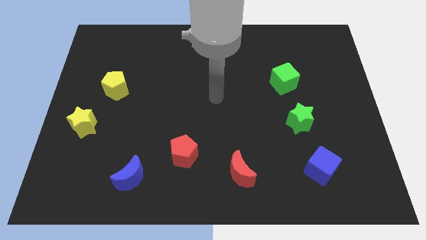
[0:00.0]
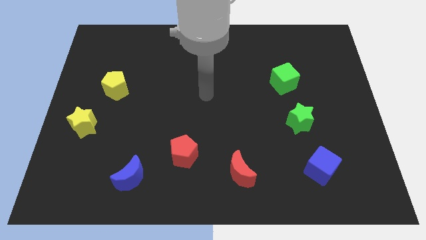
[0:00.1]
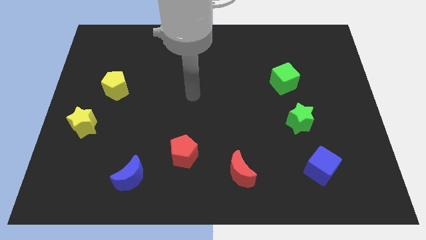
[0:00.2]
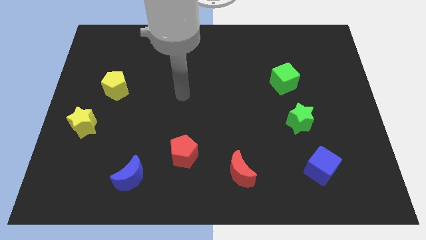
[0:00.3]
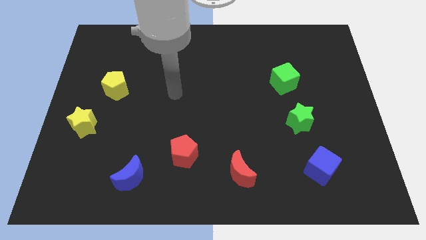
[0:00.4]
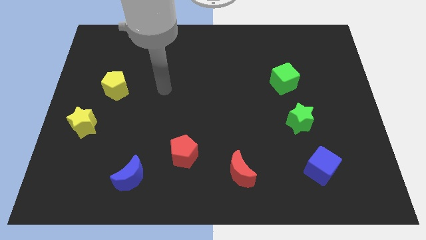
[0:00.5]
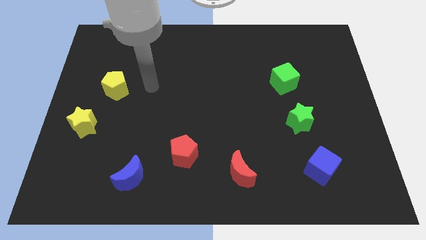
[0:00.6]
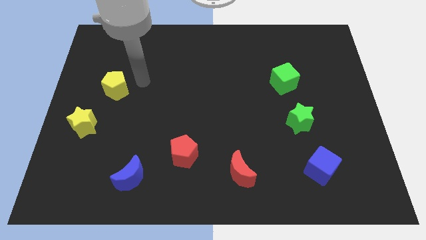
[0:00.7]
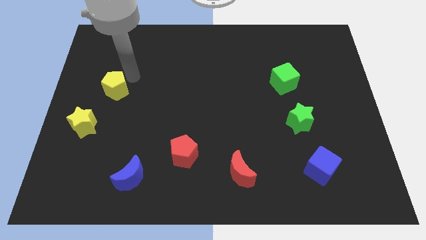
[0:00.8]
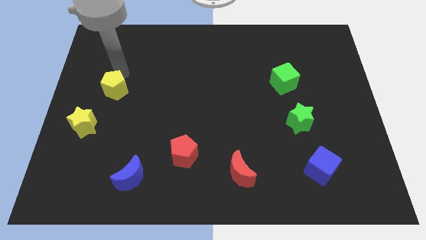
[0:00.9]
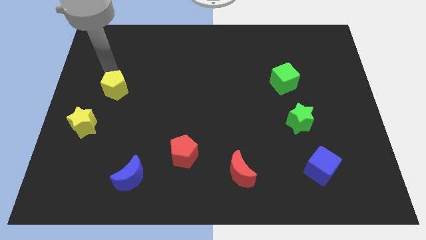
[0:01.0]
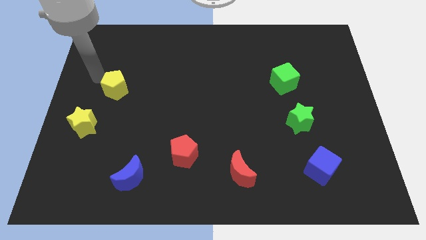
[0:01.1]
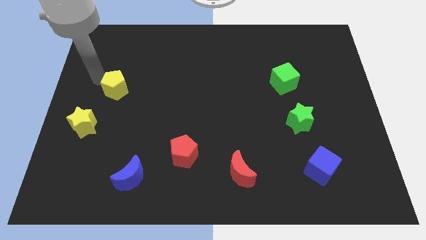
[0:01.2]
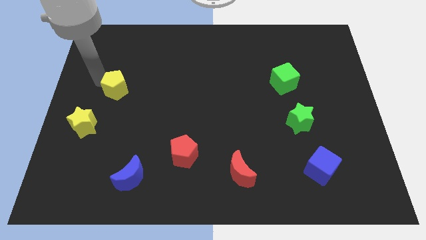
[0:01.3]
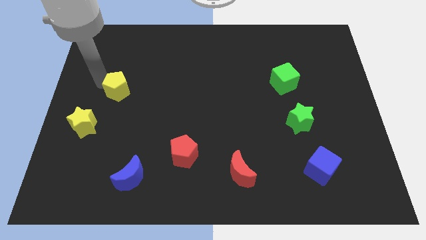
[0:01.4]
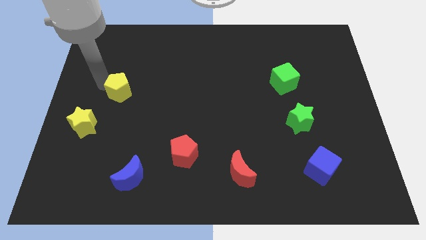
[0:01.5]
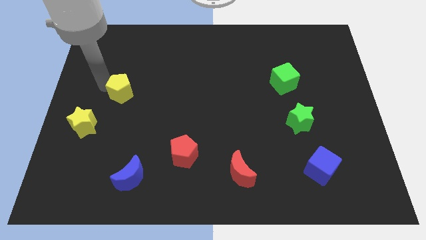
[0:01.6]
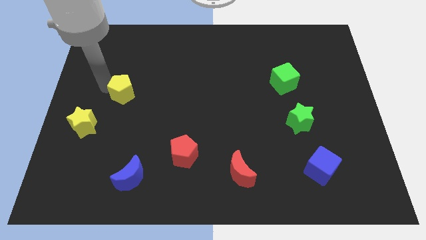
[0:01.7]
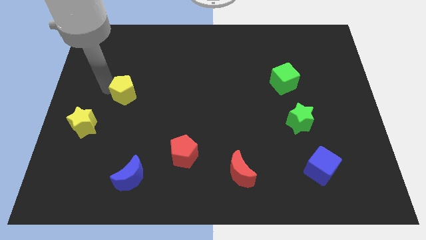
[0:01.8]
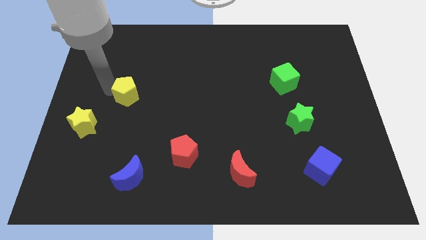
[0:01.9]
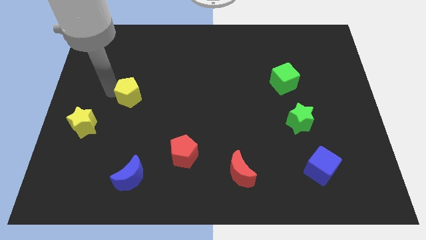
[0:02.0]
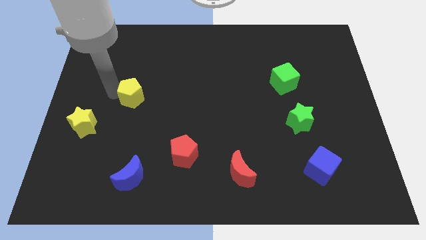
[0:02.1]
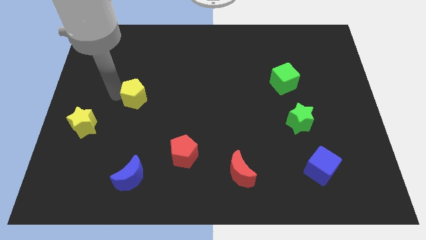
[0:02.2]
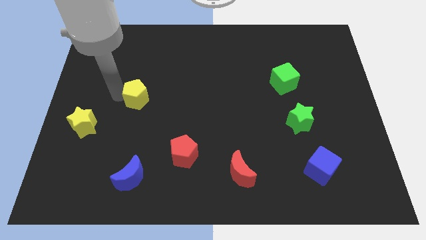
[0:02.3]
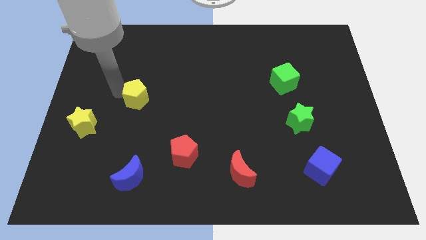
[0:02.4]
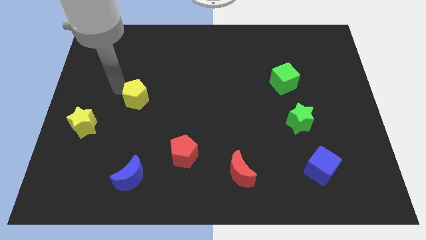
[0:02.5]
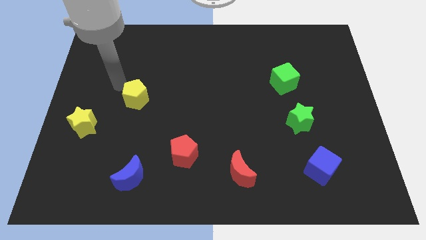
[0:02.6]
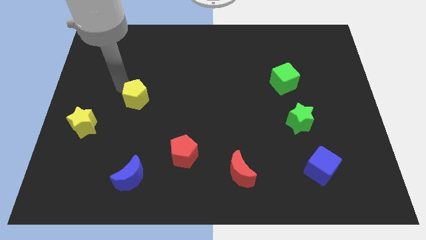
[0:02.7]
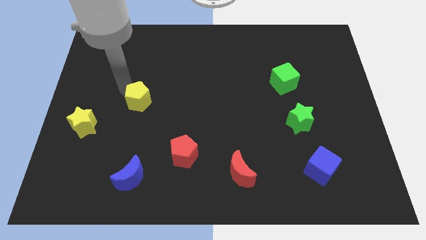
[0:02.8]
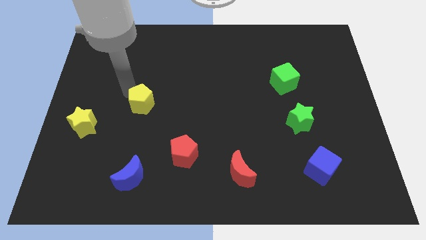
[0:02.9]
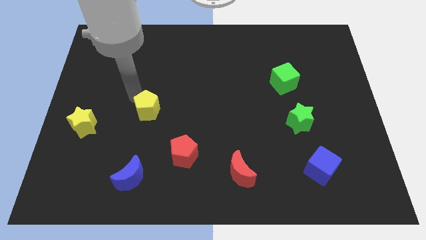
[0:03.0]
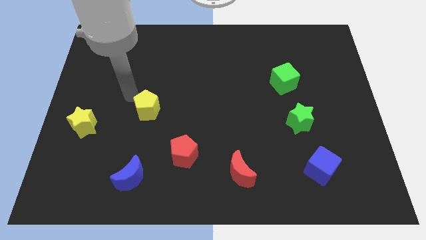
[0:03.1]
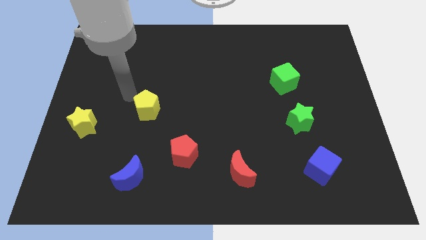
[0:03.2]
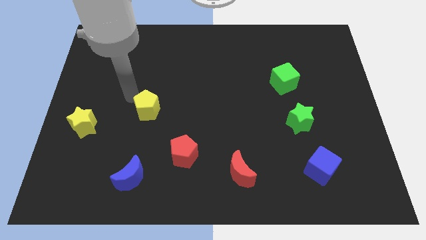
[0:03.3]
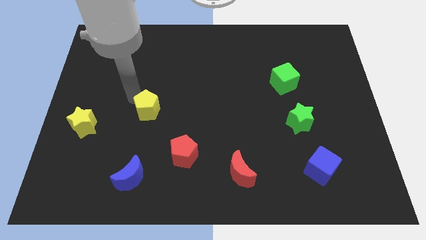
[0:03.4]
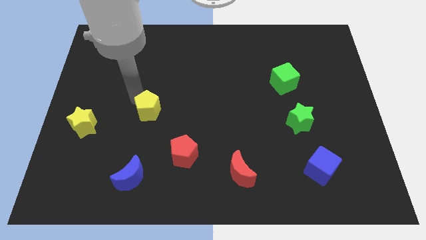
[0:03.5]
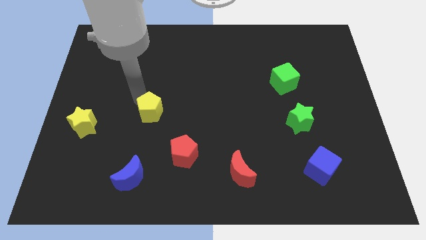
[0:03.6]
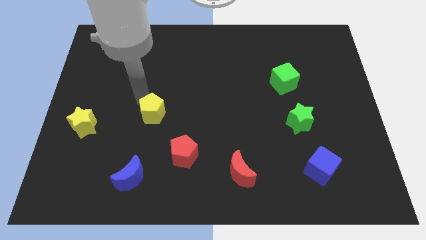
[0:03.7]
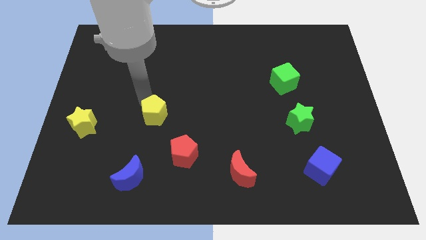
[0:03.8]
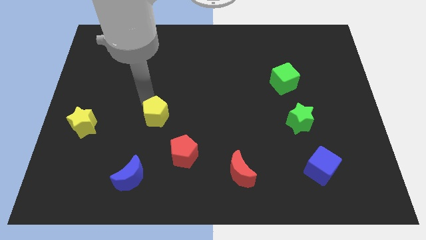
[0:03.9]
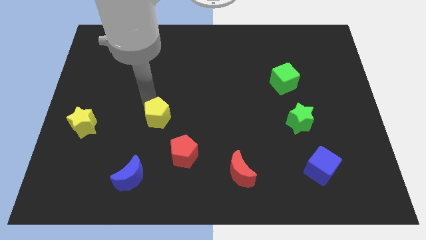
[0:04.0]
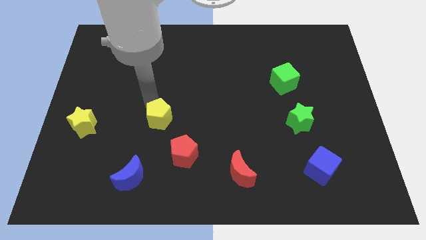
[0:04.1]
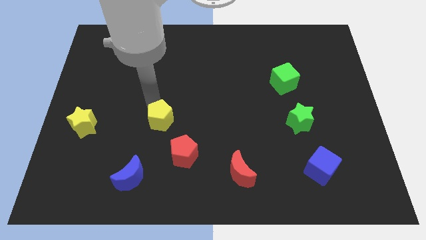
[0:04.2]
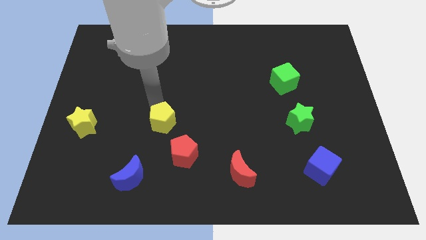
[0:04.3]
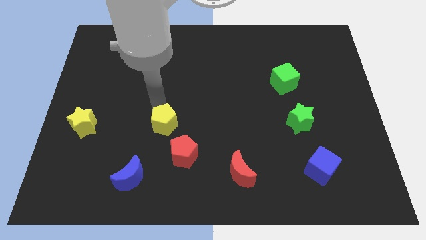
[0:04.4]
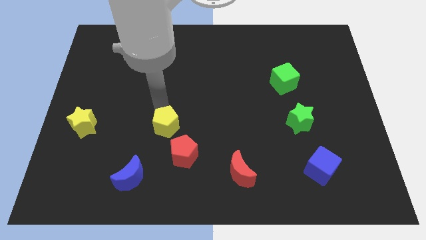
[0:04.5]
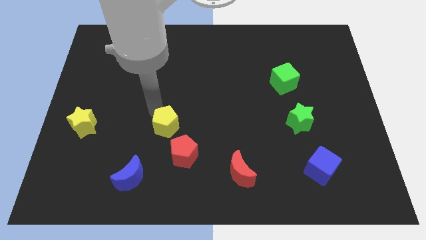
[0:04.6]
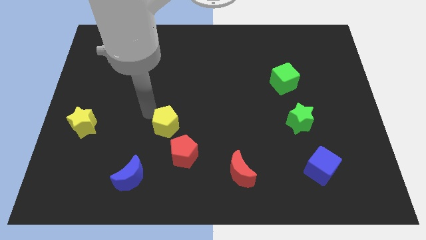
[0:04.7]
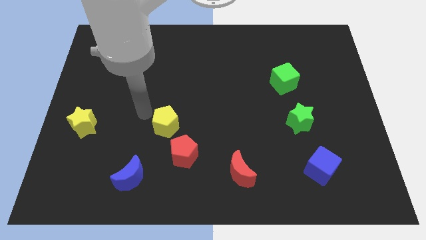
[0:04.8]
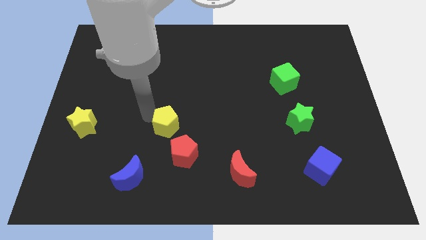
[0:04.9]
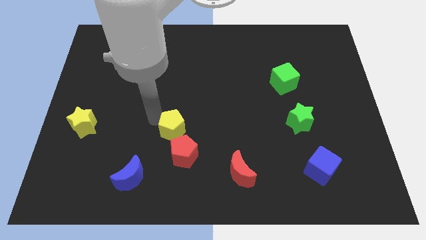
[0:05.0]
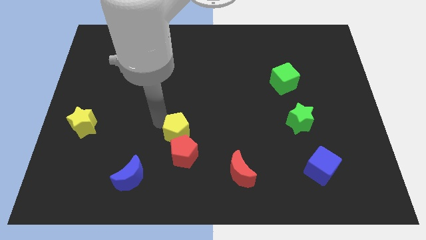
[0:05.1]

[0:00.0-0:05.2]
push the yellow pentagon downwards and then to the right

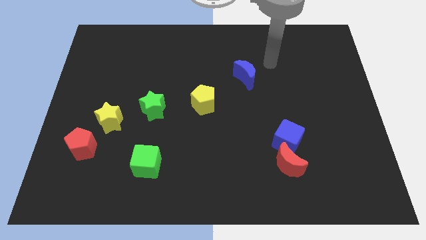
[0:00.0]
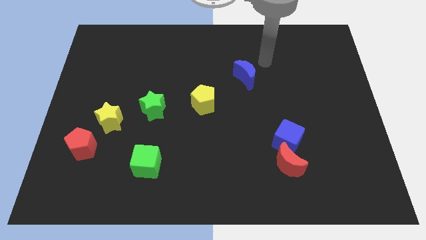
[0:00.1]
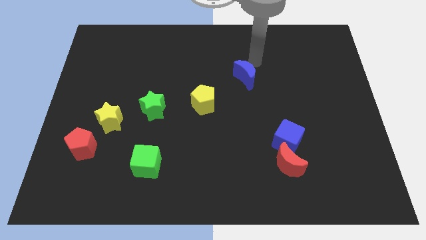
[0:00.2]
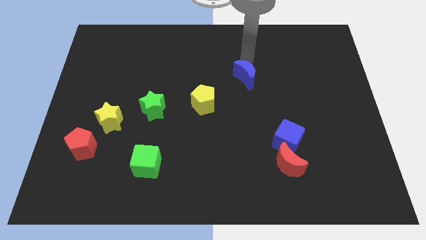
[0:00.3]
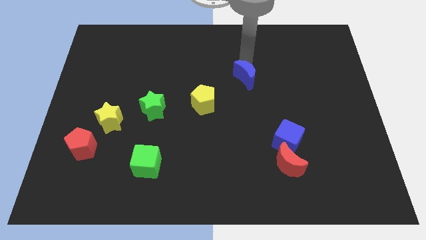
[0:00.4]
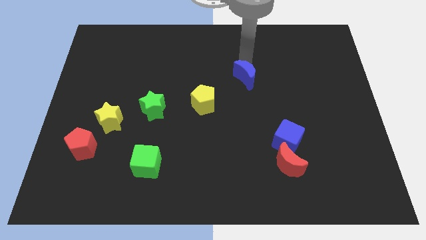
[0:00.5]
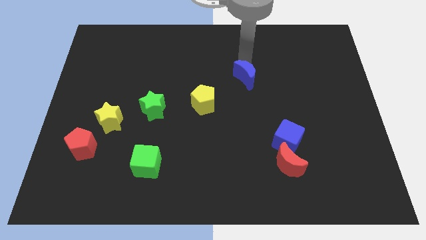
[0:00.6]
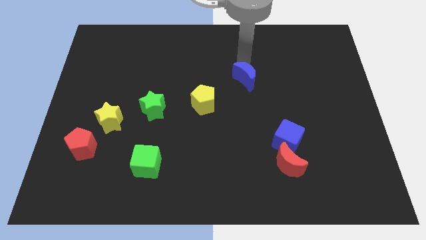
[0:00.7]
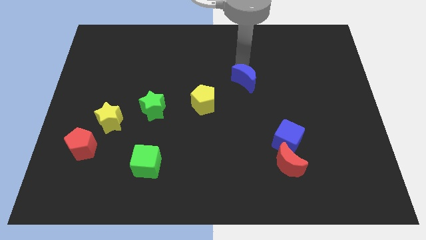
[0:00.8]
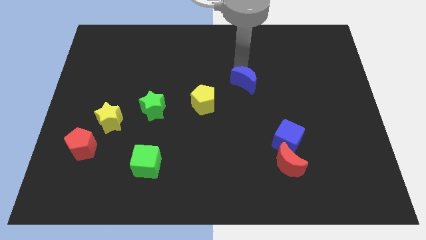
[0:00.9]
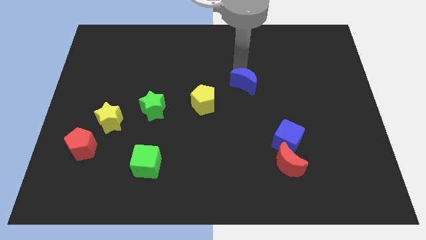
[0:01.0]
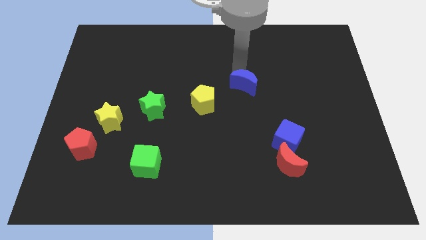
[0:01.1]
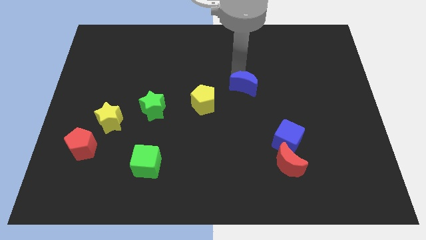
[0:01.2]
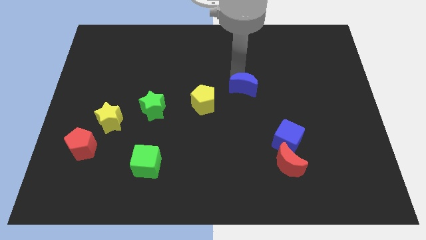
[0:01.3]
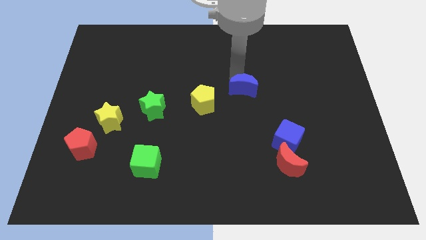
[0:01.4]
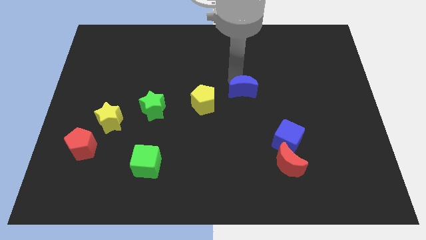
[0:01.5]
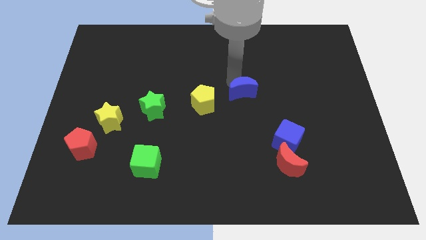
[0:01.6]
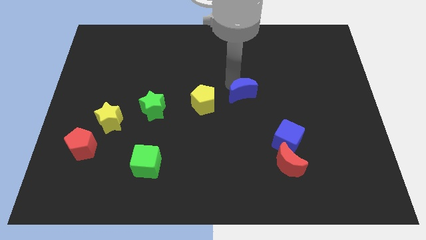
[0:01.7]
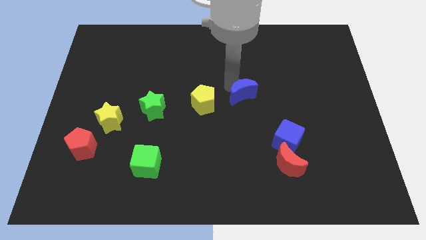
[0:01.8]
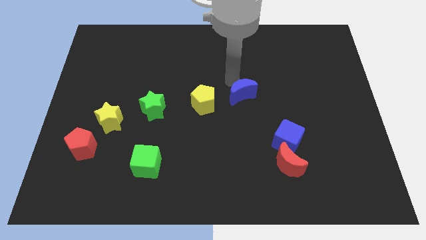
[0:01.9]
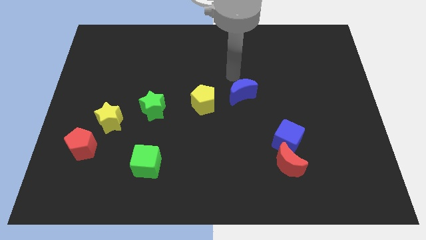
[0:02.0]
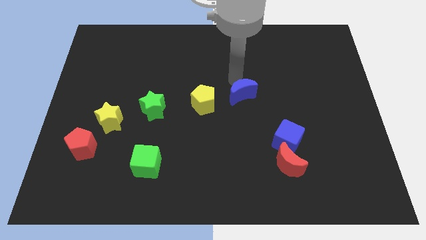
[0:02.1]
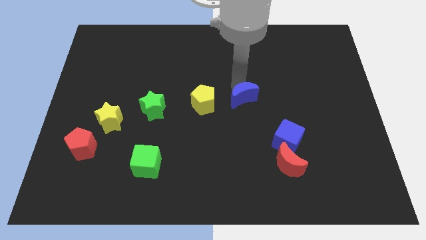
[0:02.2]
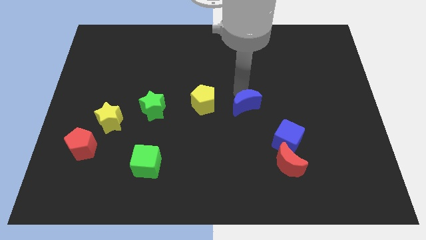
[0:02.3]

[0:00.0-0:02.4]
move the blue moon down a bit
